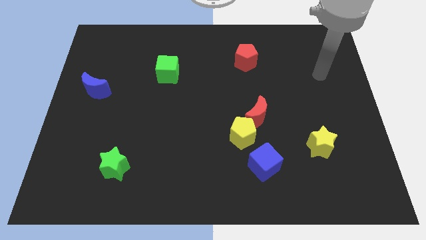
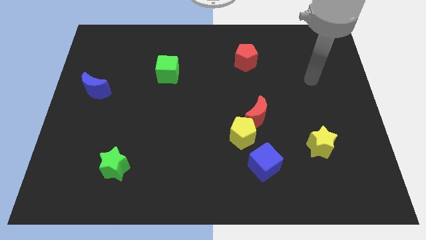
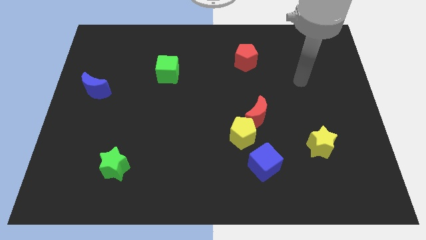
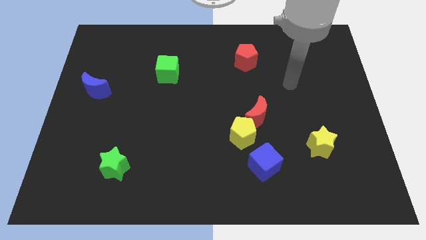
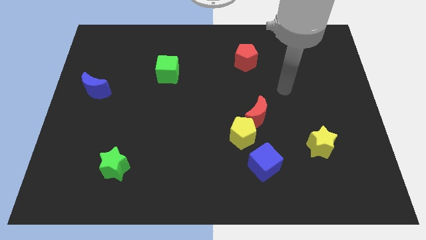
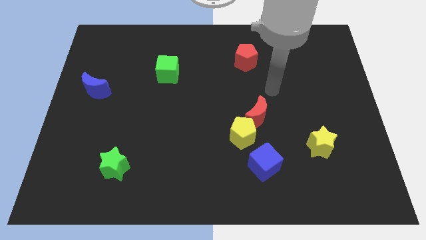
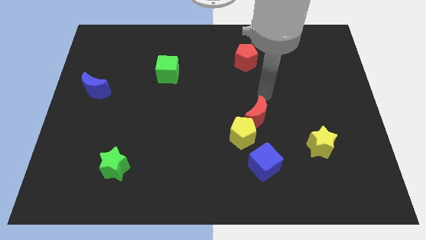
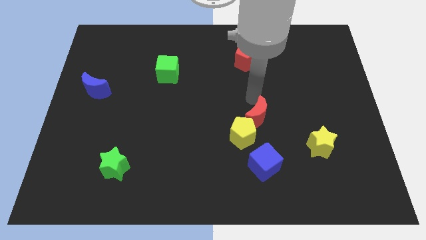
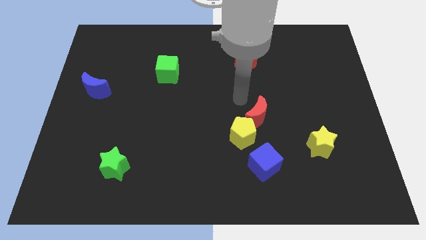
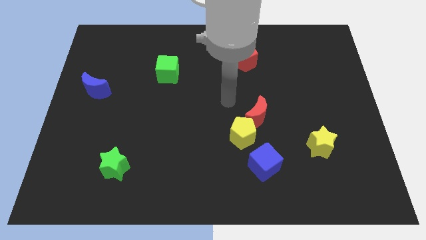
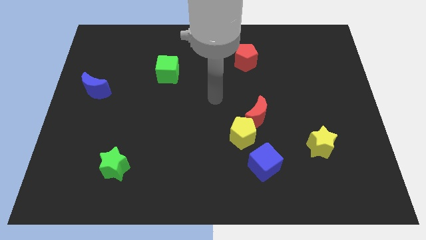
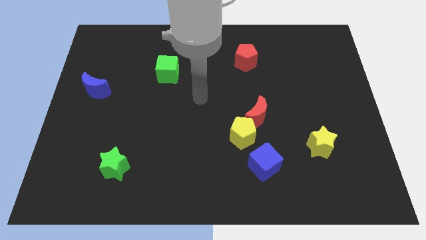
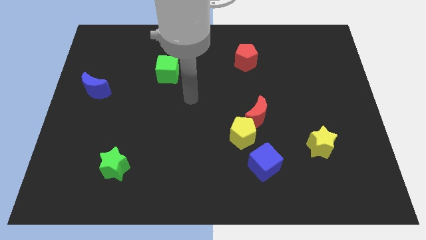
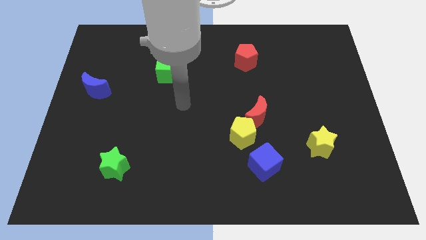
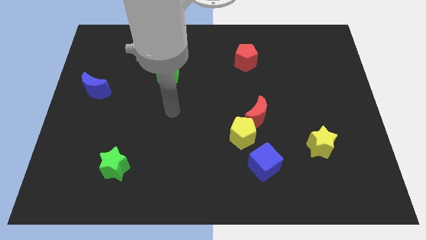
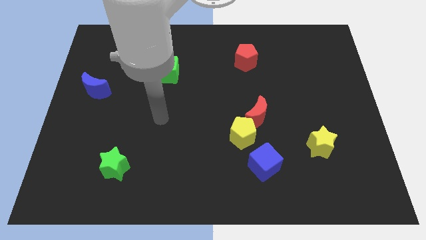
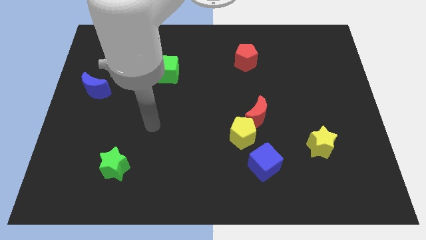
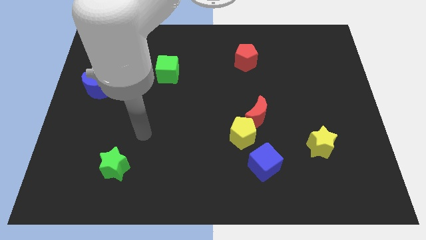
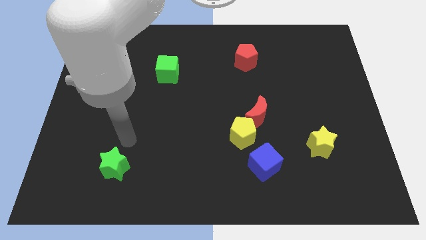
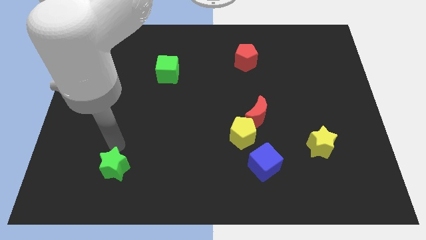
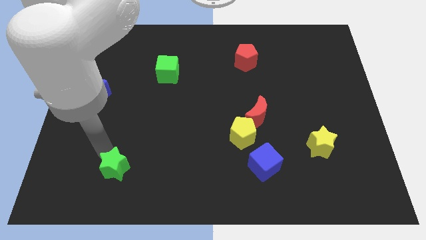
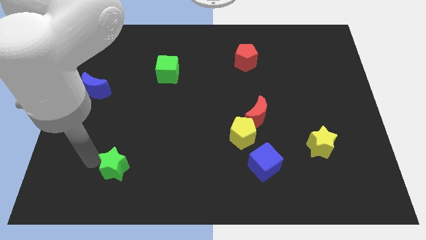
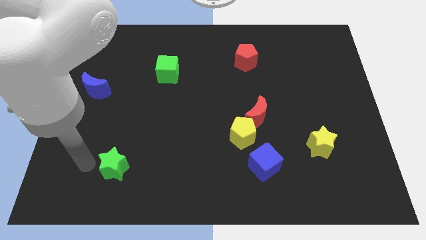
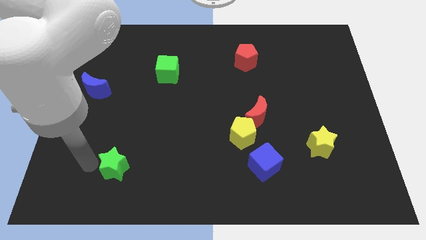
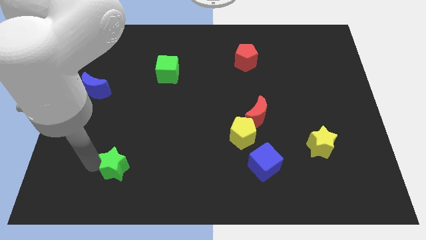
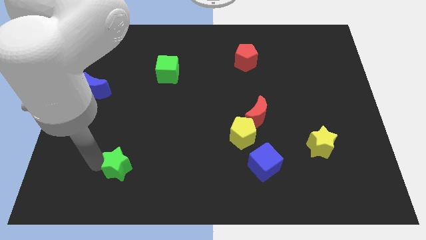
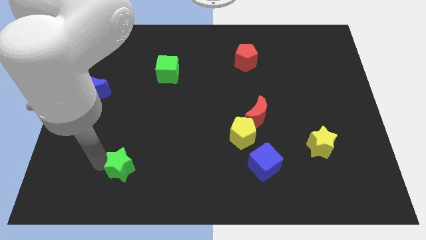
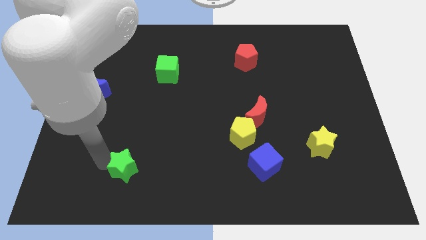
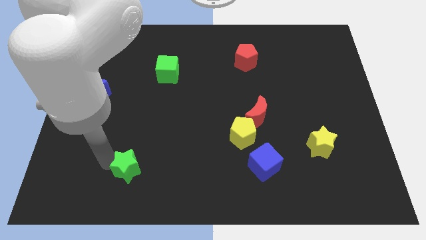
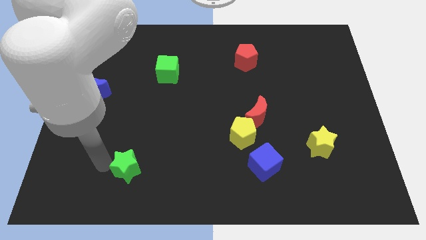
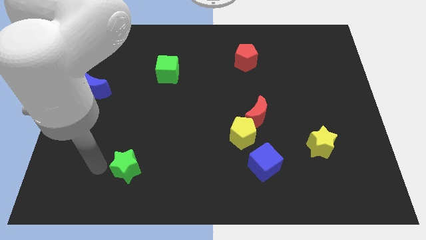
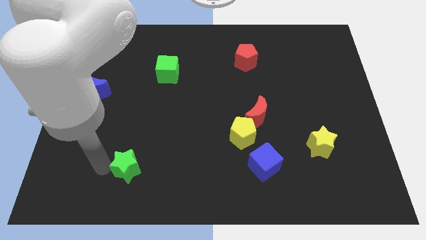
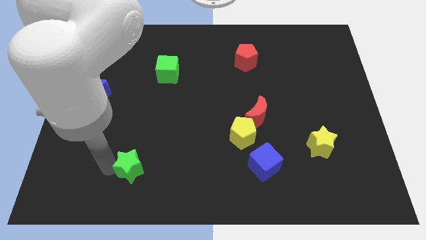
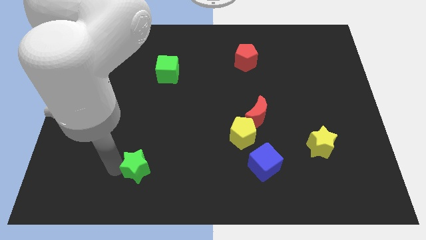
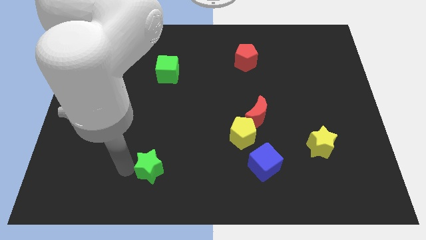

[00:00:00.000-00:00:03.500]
push the green star slightly to the right

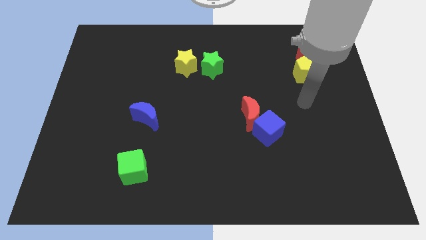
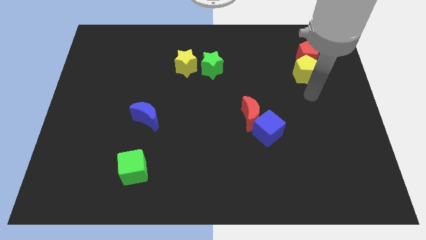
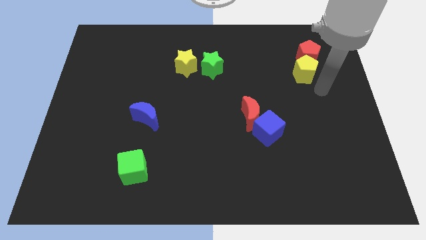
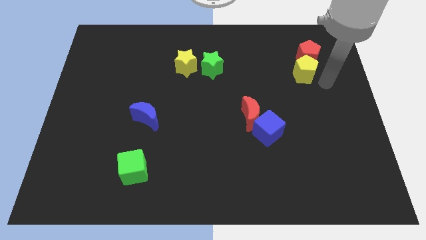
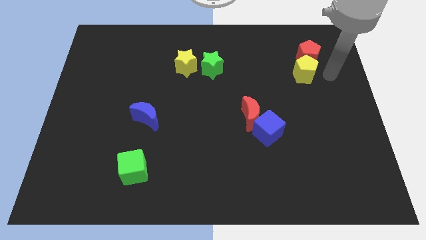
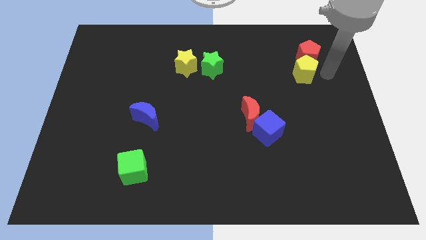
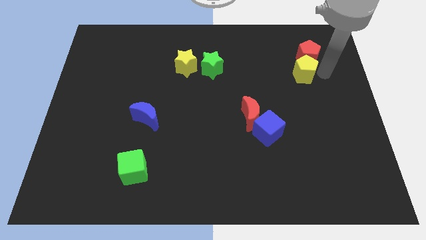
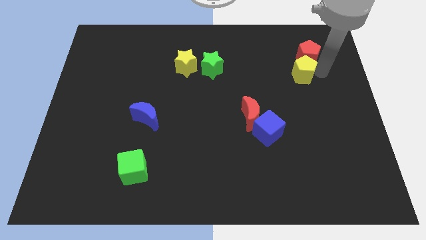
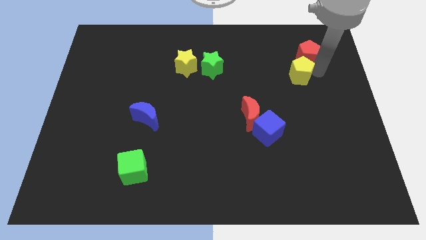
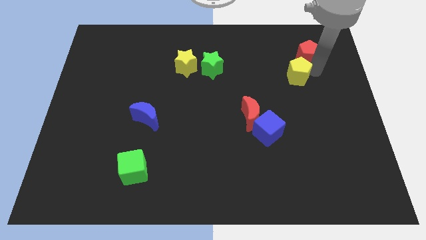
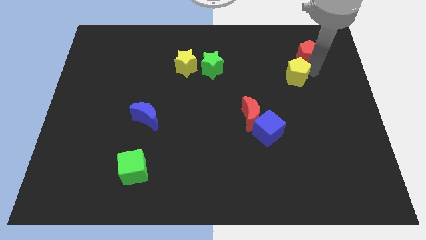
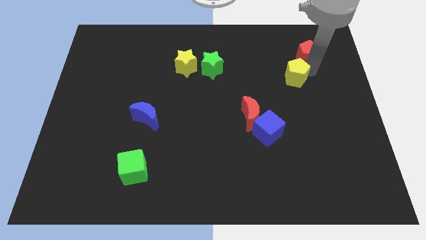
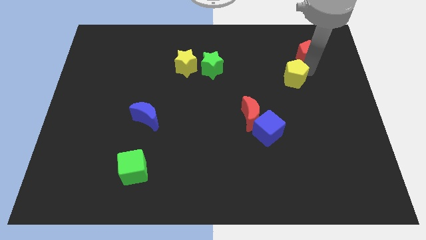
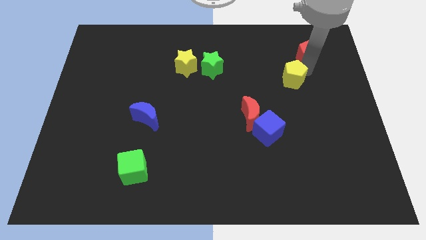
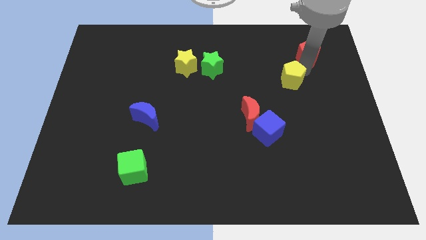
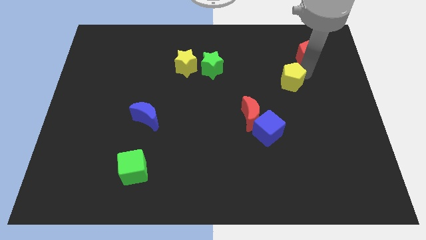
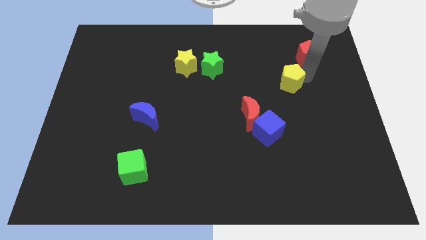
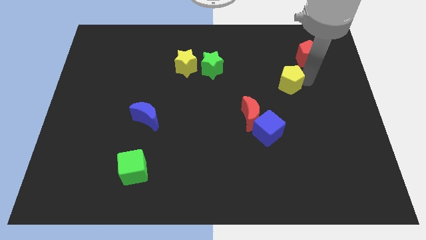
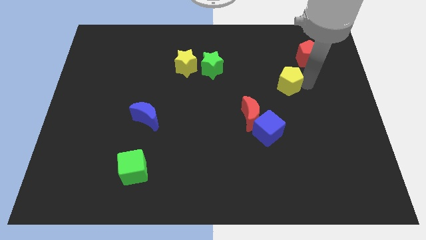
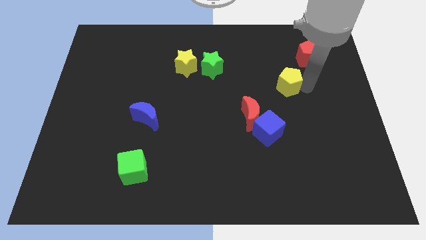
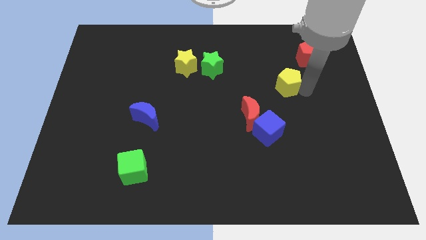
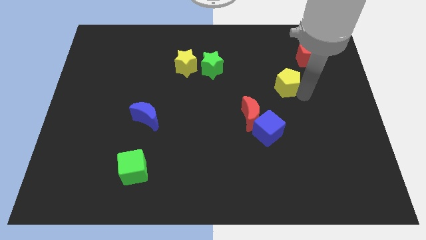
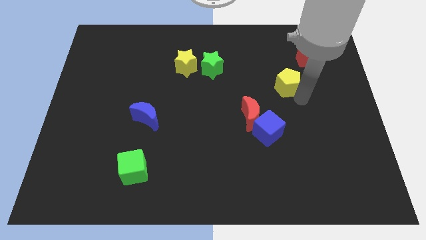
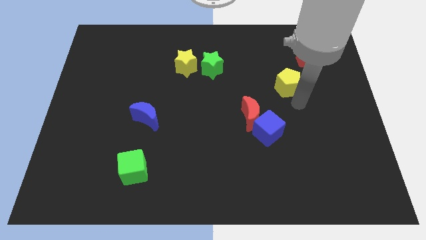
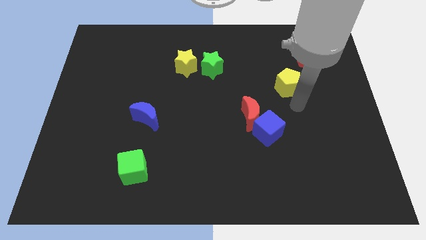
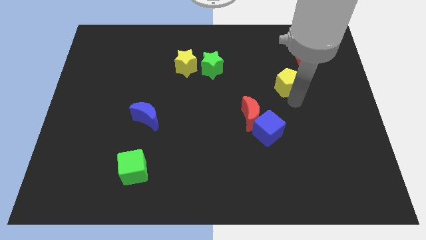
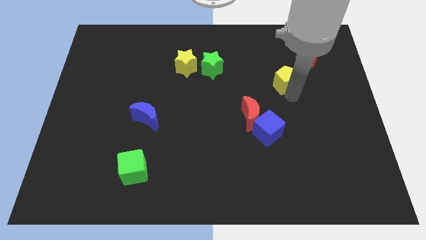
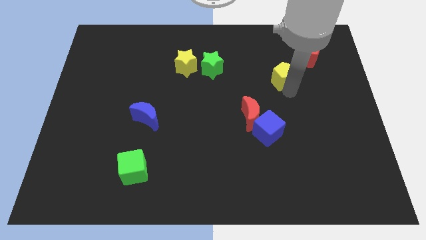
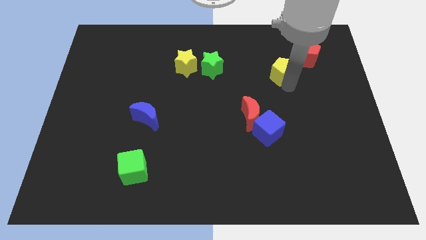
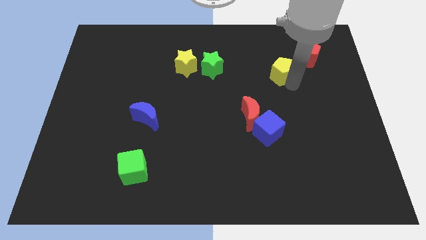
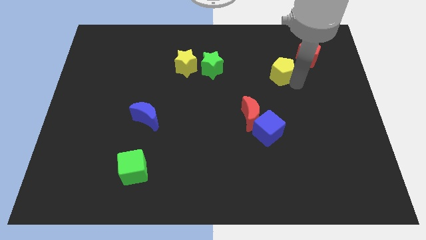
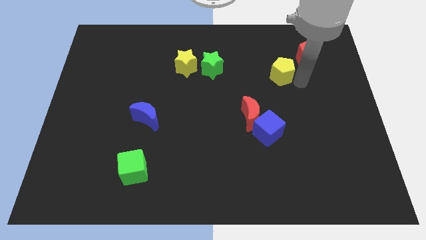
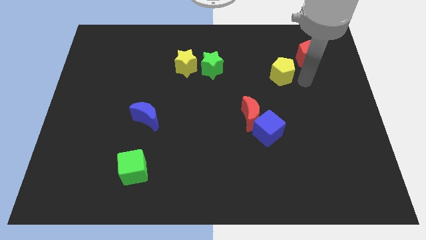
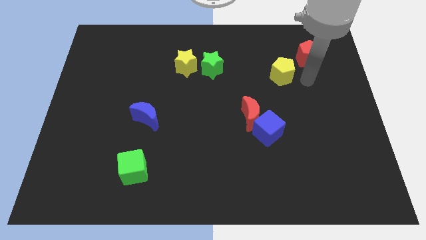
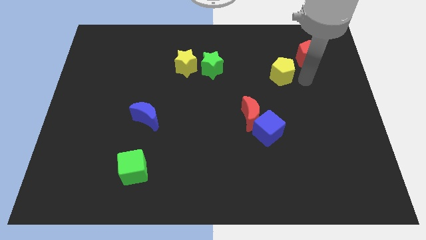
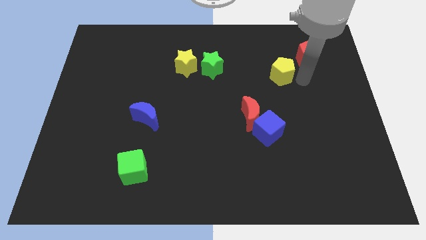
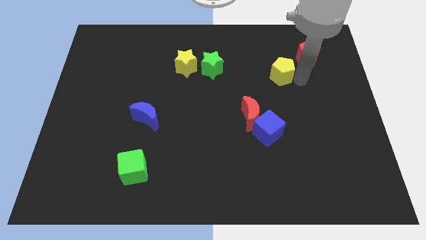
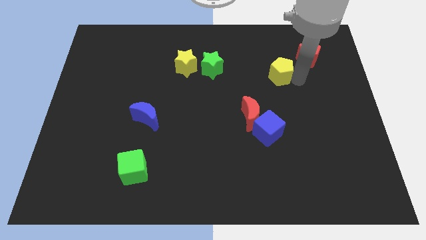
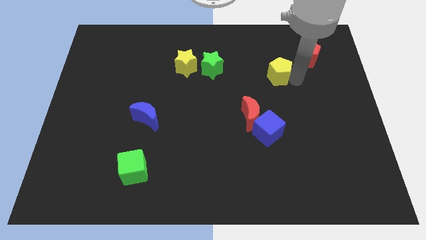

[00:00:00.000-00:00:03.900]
slide the yellow pentagon left a little bit

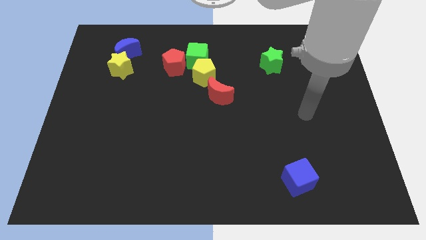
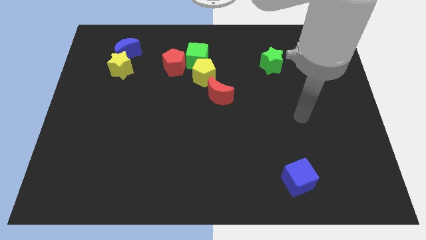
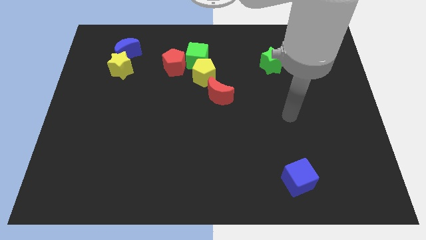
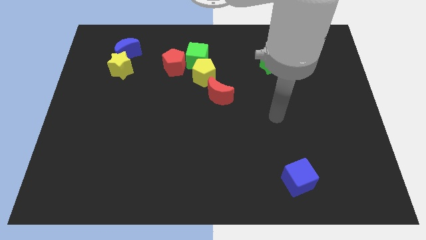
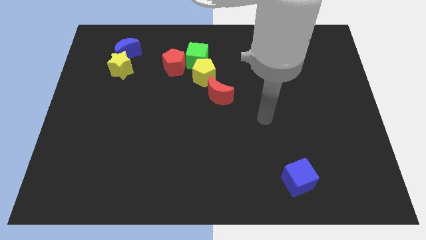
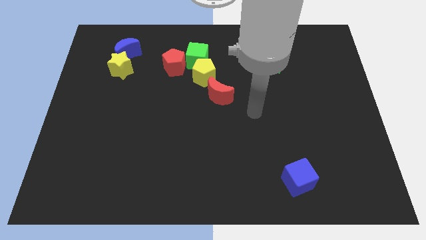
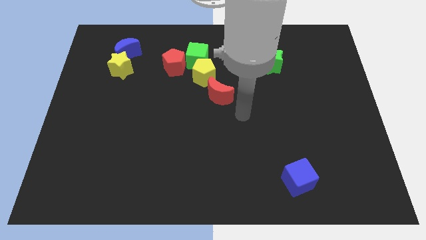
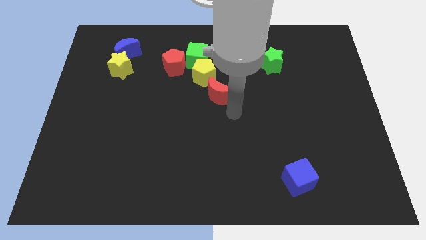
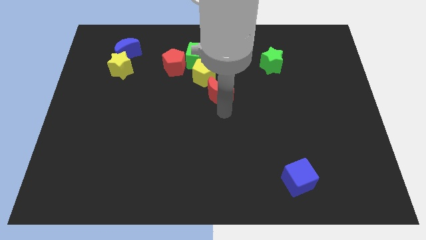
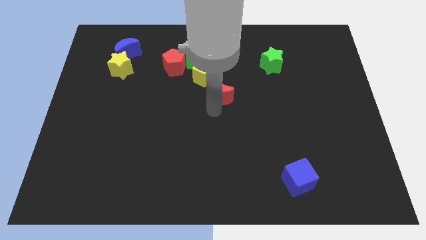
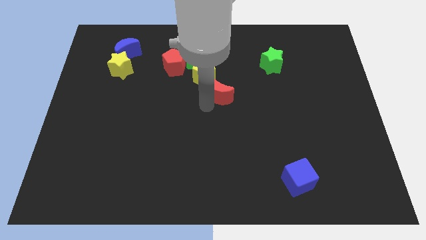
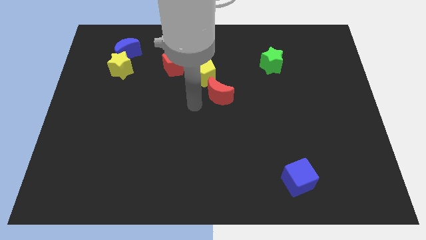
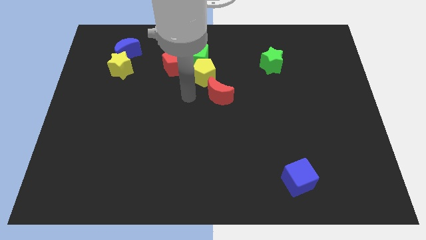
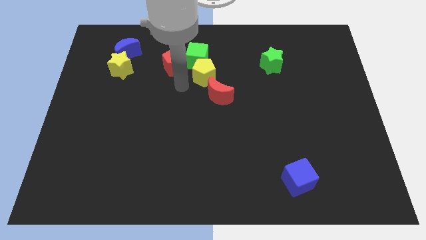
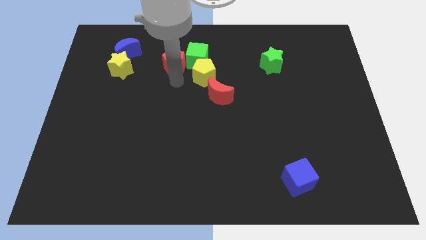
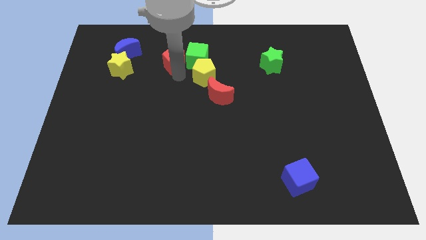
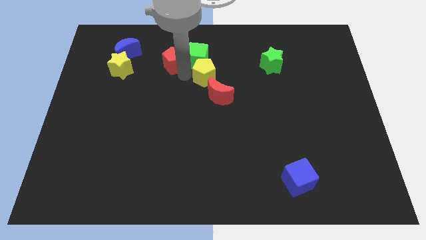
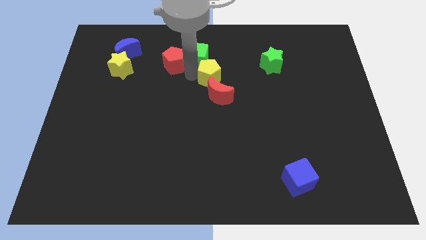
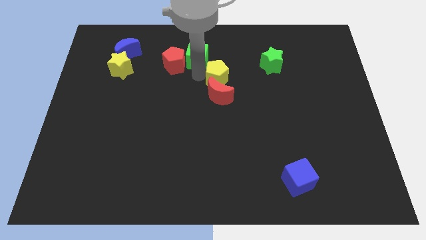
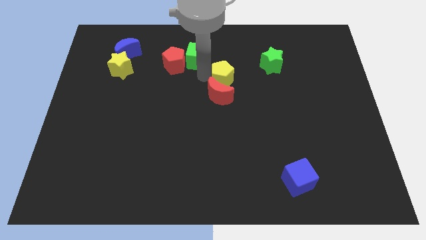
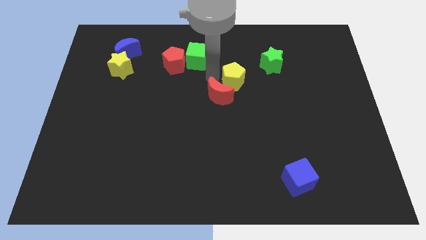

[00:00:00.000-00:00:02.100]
push the yellow pentagon somewhat to the right
